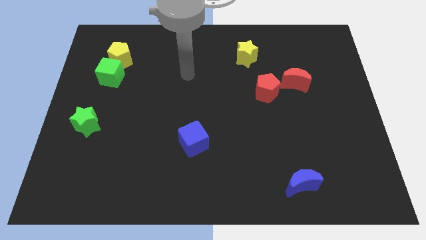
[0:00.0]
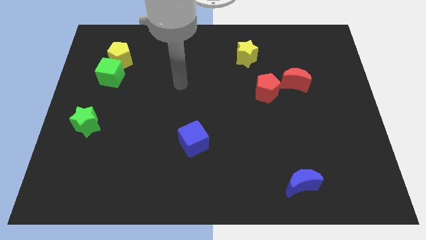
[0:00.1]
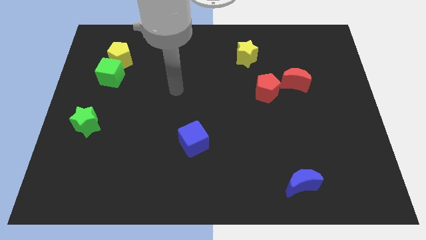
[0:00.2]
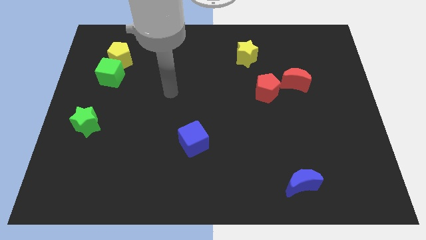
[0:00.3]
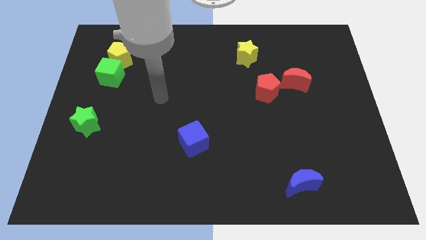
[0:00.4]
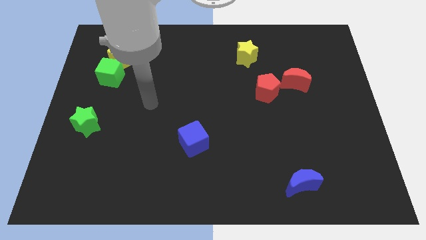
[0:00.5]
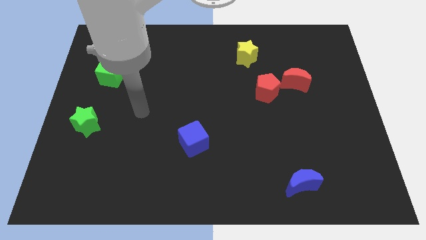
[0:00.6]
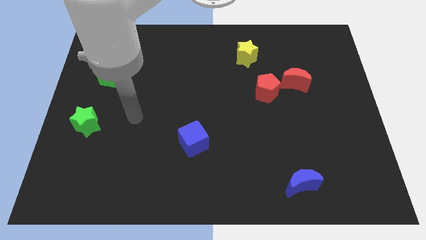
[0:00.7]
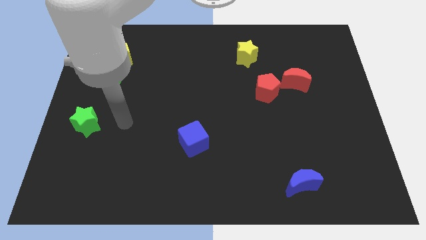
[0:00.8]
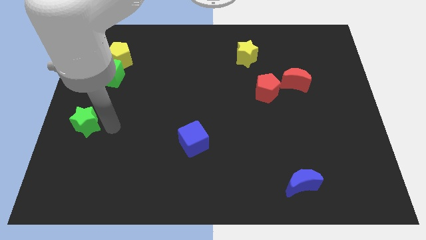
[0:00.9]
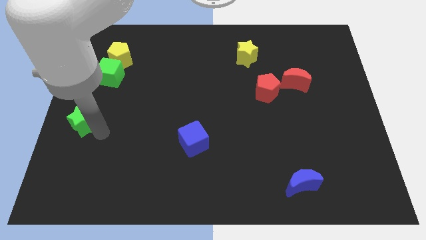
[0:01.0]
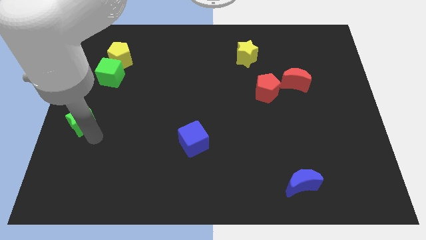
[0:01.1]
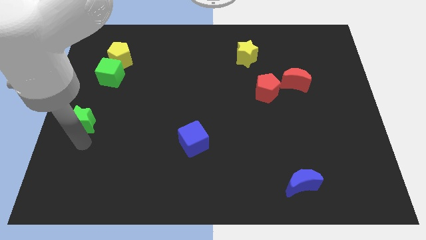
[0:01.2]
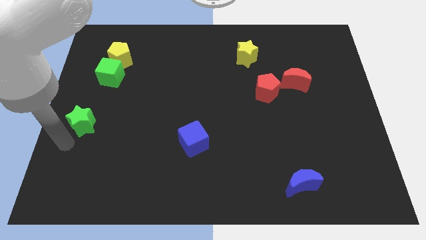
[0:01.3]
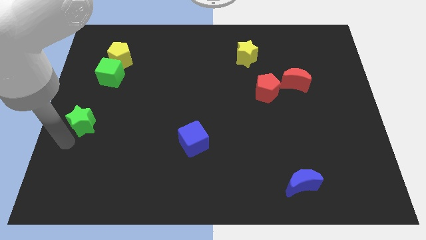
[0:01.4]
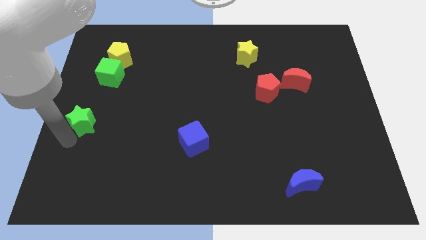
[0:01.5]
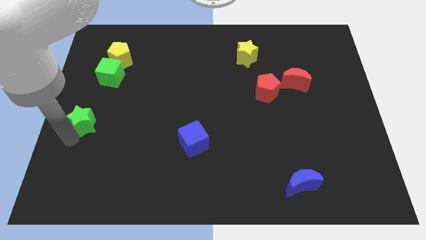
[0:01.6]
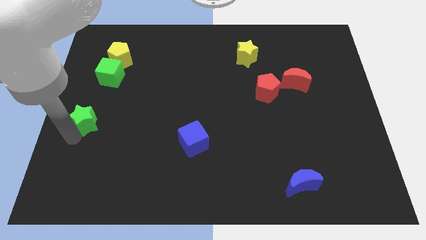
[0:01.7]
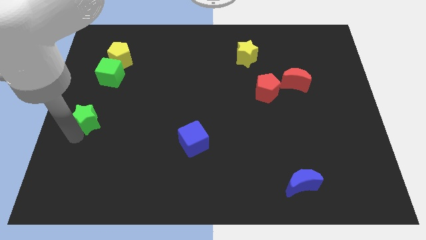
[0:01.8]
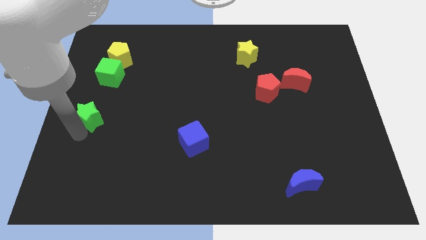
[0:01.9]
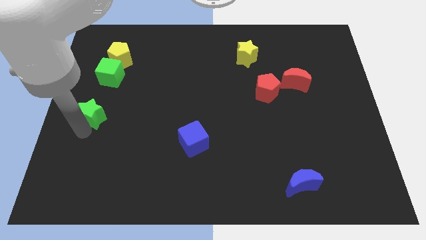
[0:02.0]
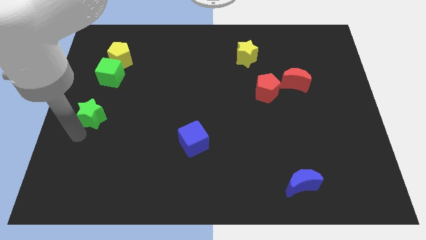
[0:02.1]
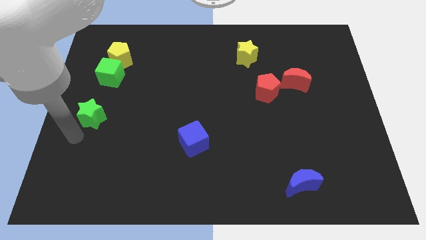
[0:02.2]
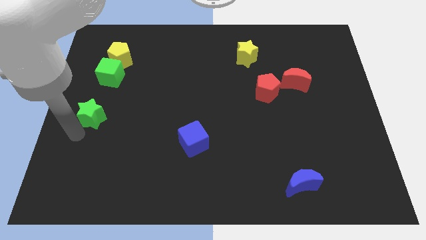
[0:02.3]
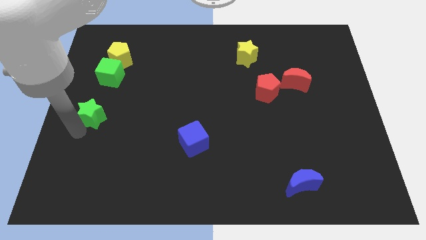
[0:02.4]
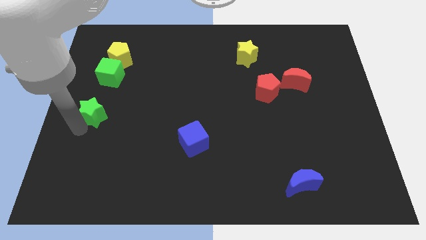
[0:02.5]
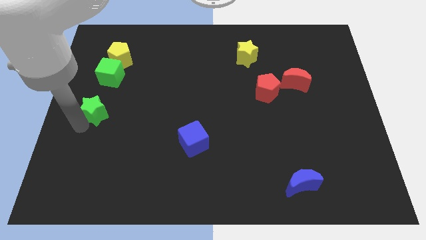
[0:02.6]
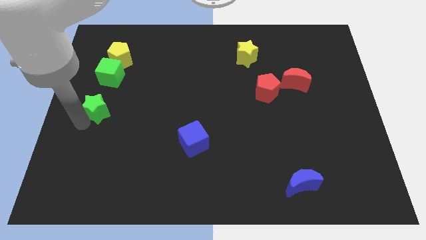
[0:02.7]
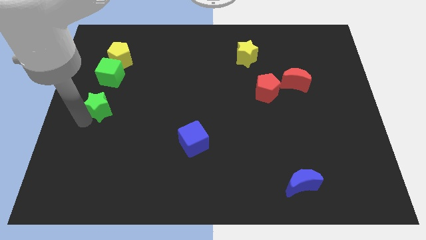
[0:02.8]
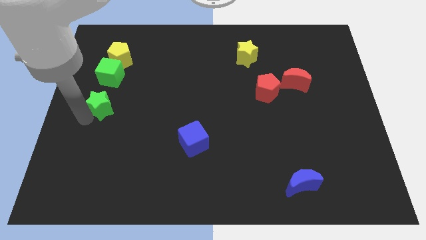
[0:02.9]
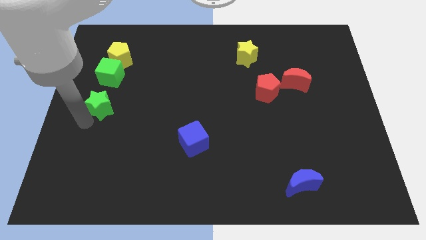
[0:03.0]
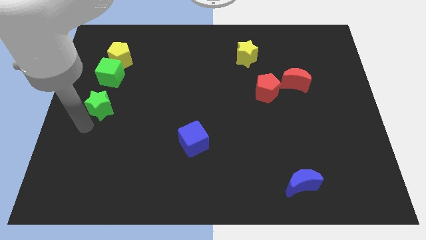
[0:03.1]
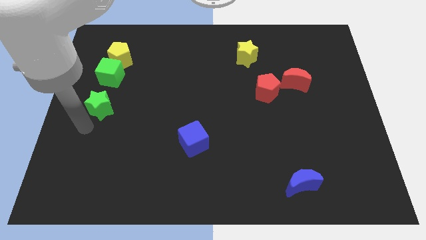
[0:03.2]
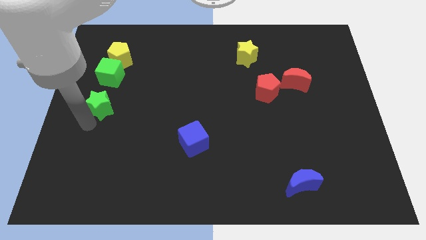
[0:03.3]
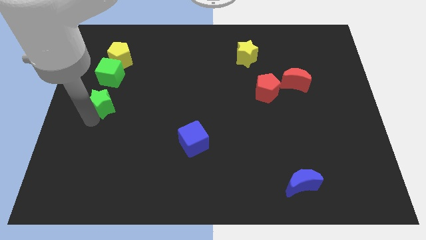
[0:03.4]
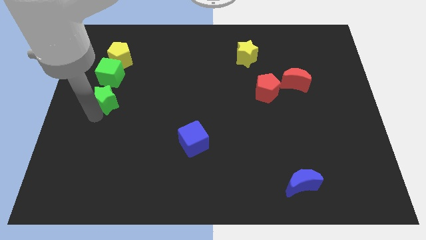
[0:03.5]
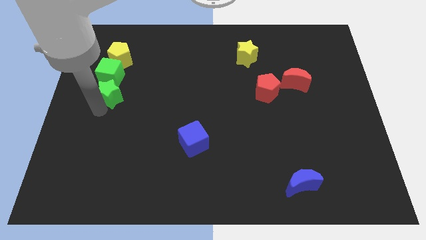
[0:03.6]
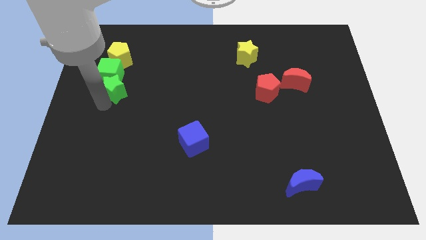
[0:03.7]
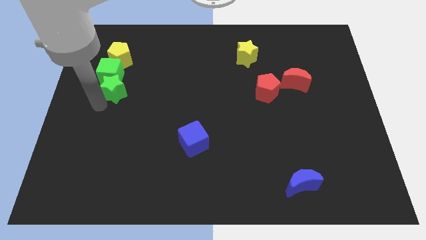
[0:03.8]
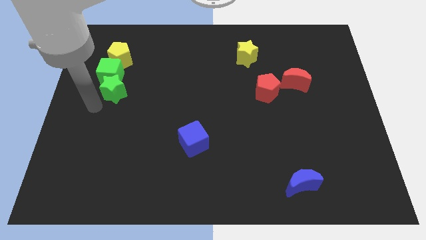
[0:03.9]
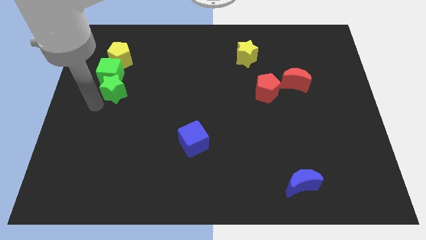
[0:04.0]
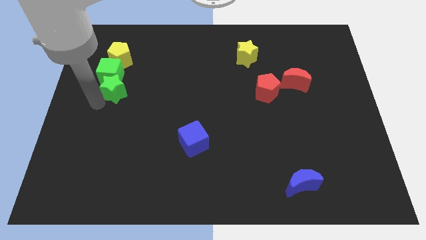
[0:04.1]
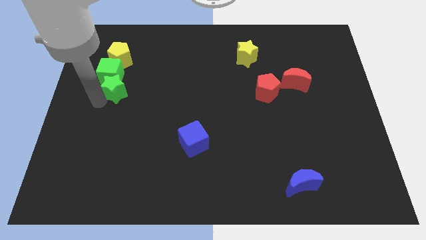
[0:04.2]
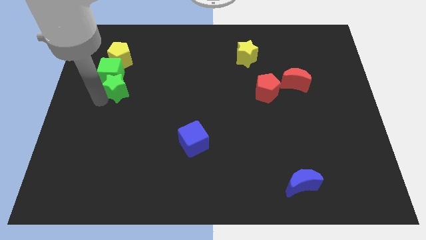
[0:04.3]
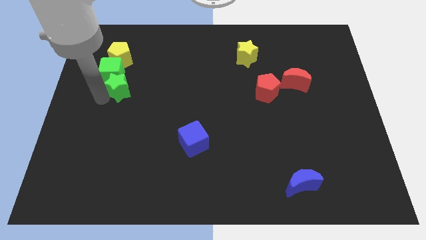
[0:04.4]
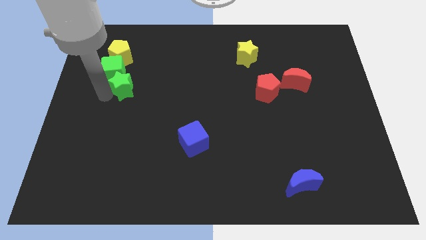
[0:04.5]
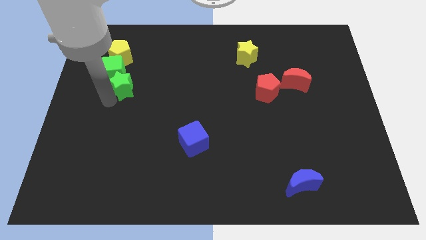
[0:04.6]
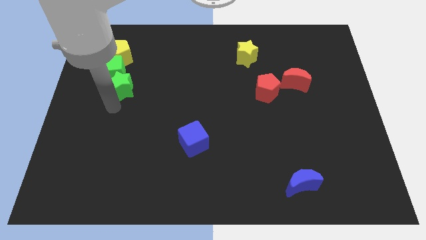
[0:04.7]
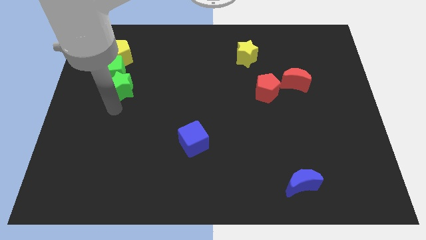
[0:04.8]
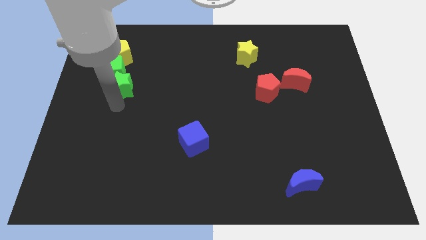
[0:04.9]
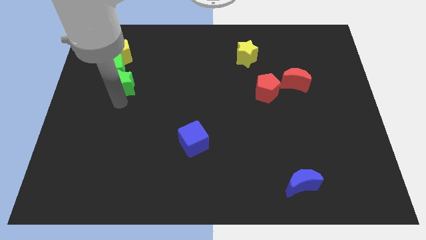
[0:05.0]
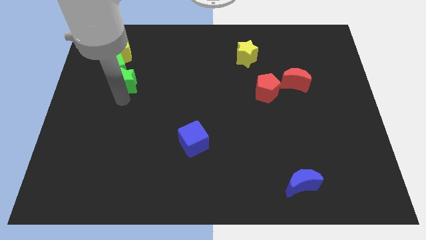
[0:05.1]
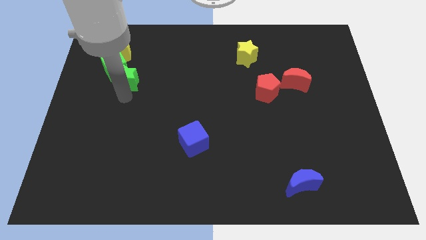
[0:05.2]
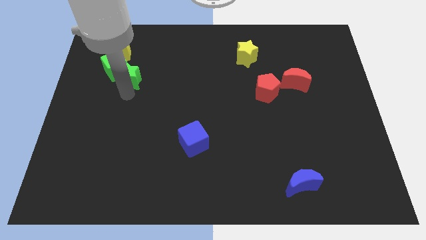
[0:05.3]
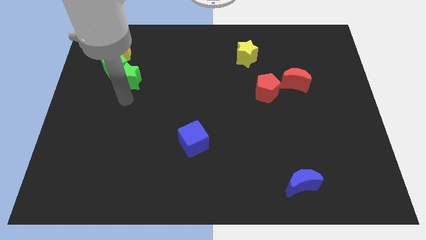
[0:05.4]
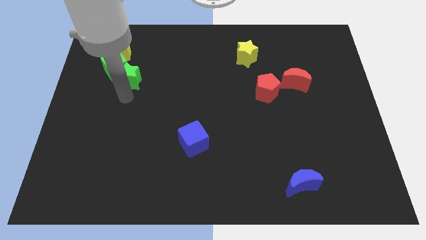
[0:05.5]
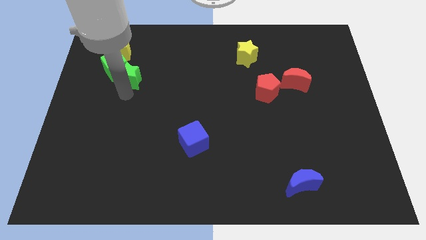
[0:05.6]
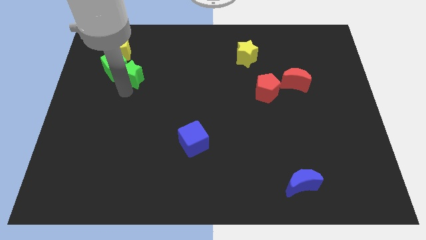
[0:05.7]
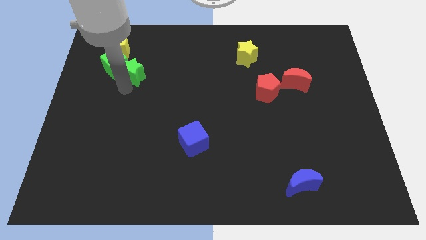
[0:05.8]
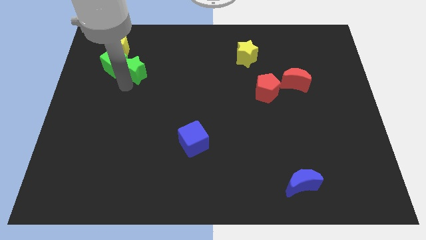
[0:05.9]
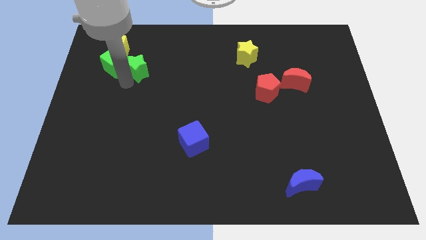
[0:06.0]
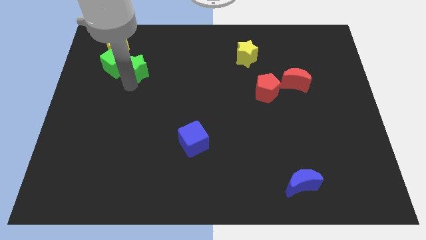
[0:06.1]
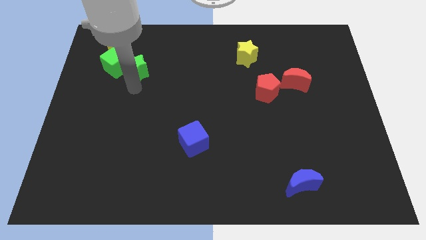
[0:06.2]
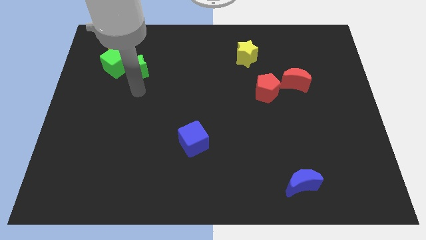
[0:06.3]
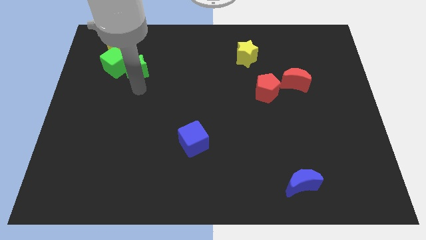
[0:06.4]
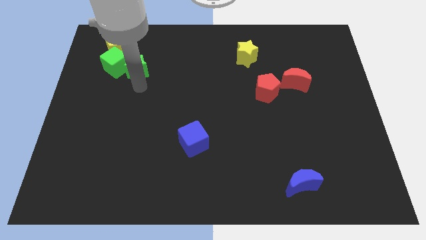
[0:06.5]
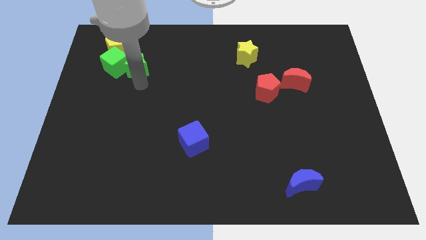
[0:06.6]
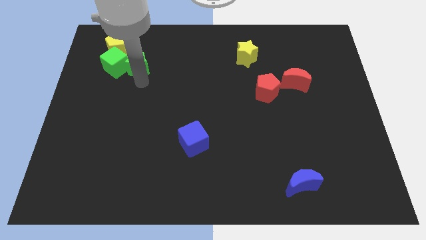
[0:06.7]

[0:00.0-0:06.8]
slide the green star diagonally up and to the right of the green cube
